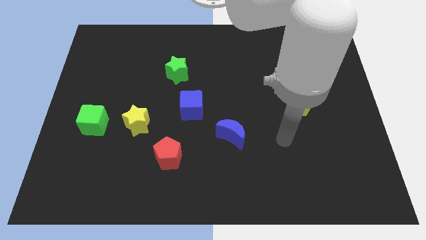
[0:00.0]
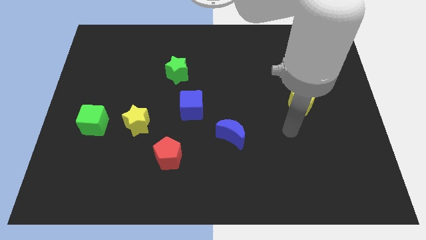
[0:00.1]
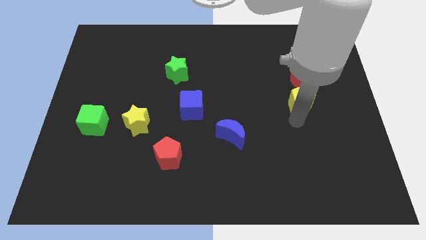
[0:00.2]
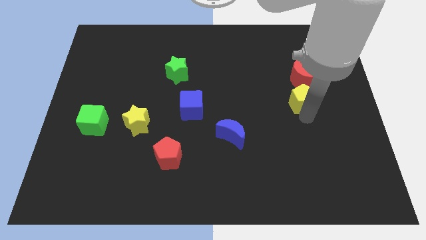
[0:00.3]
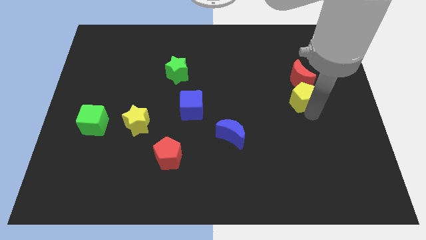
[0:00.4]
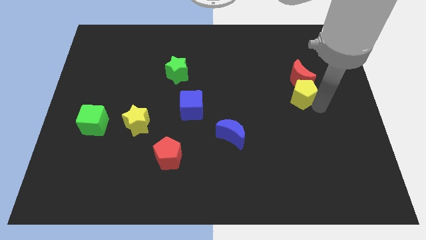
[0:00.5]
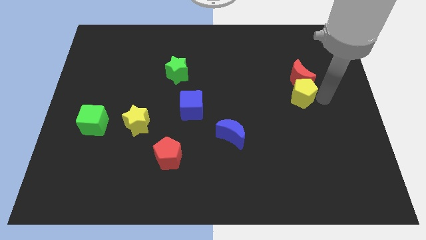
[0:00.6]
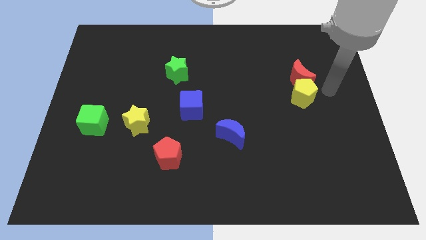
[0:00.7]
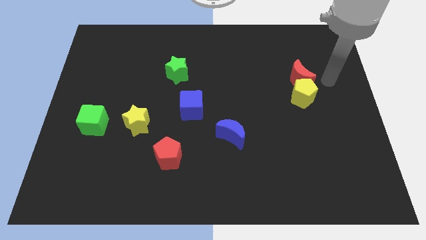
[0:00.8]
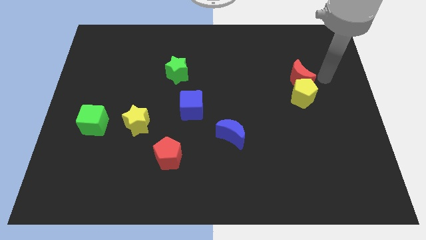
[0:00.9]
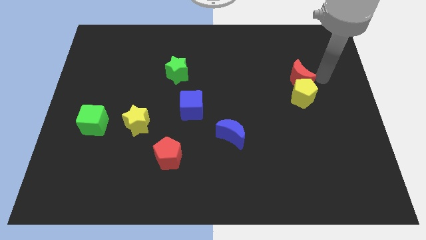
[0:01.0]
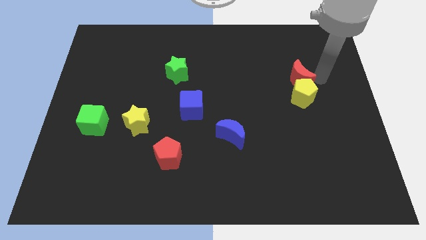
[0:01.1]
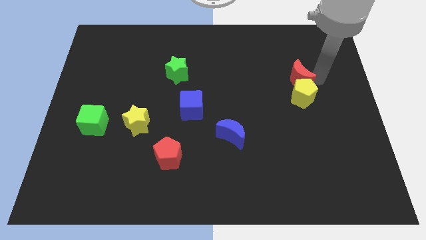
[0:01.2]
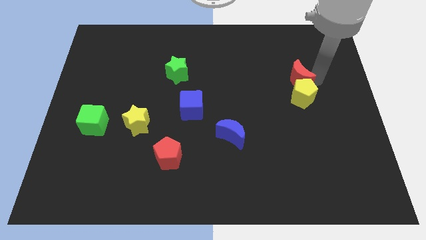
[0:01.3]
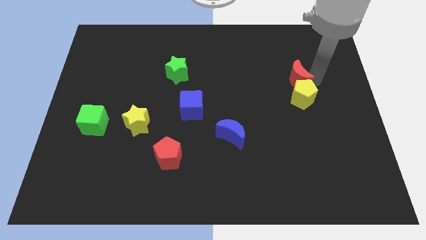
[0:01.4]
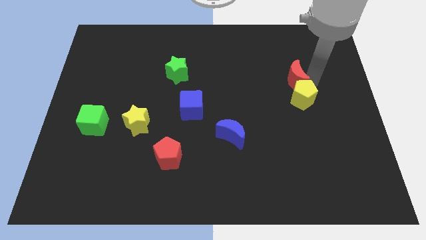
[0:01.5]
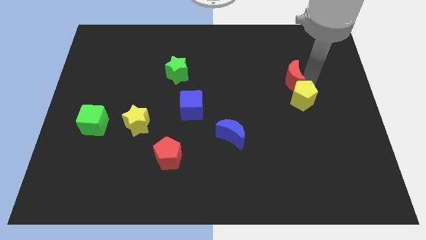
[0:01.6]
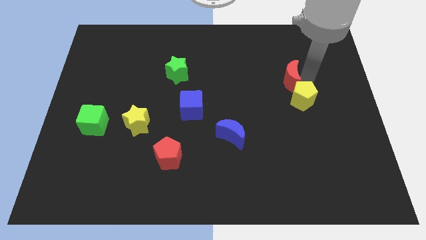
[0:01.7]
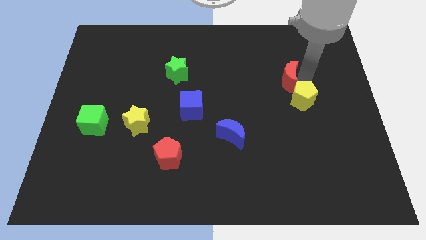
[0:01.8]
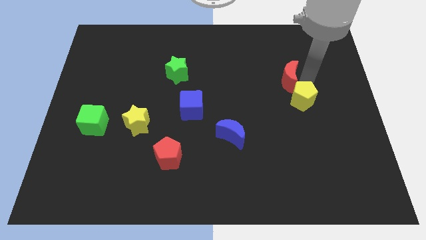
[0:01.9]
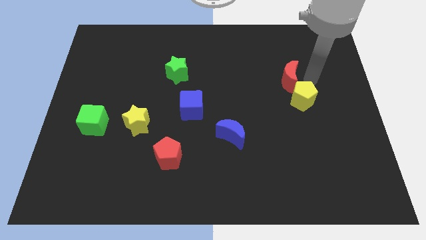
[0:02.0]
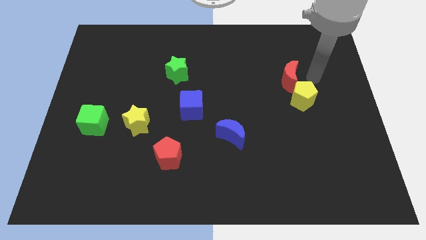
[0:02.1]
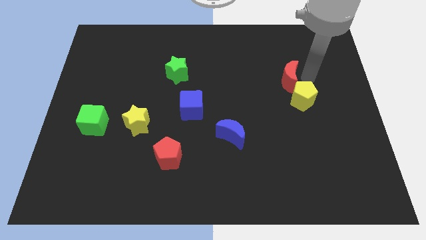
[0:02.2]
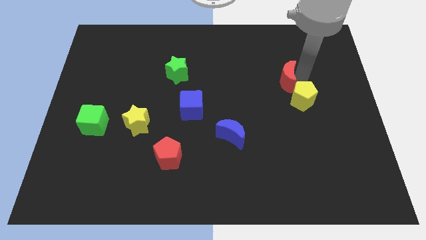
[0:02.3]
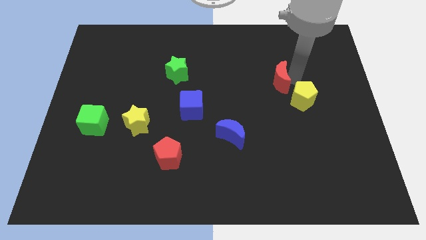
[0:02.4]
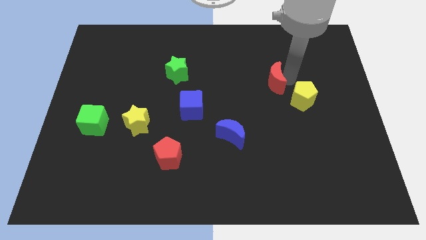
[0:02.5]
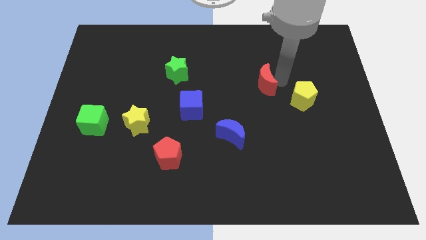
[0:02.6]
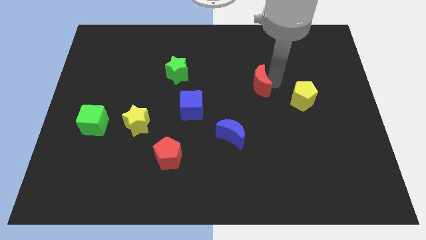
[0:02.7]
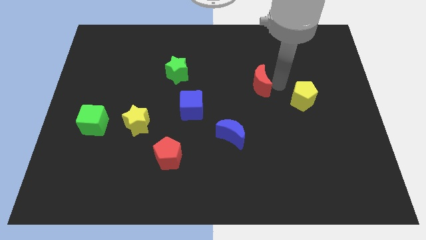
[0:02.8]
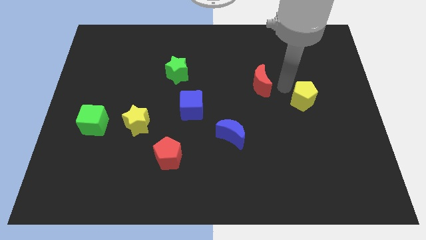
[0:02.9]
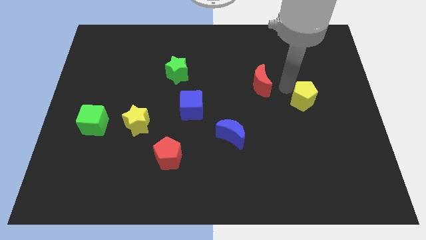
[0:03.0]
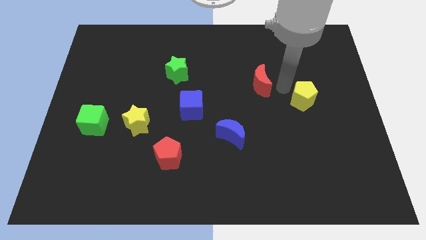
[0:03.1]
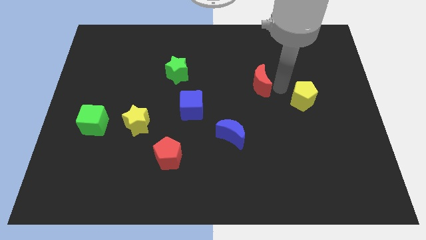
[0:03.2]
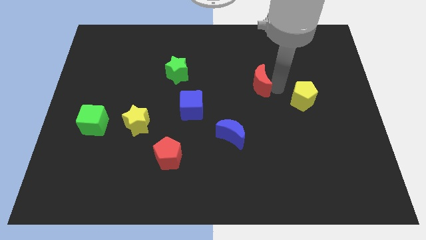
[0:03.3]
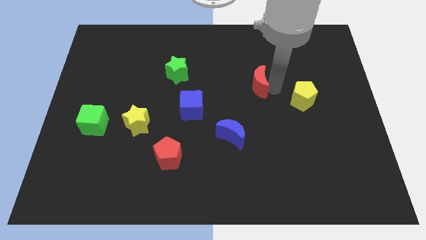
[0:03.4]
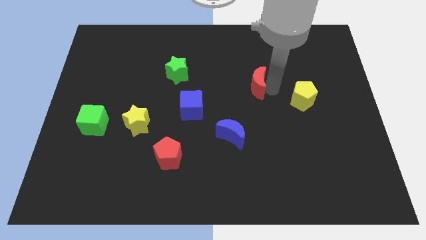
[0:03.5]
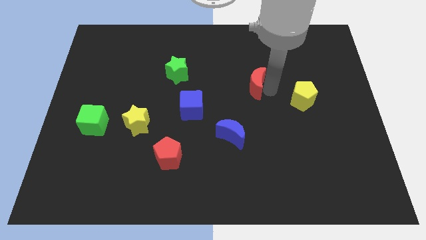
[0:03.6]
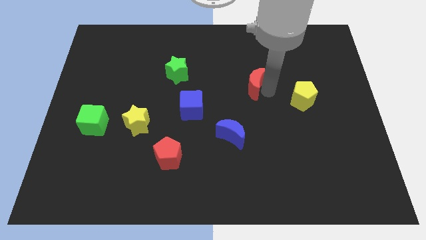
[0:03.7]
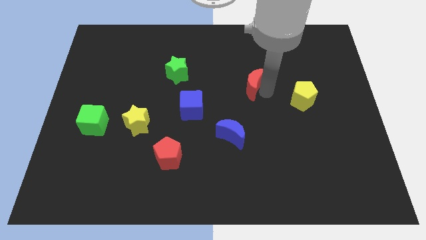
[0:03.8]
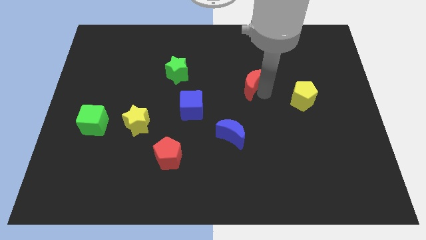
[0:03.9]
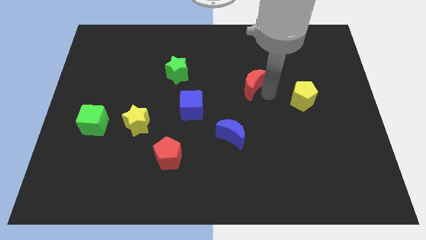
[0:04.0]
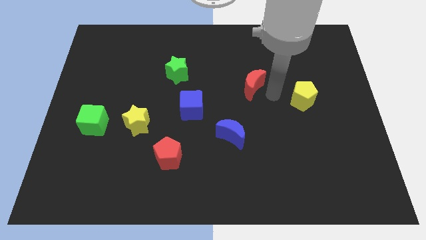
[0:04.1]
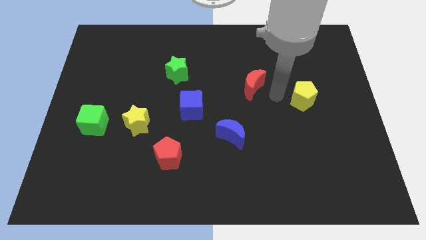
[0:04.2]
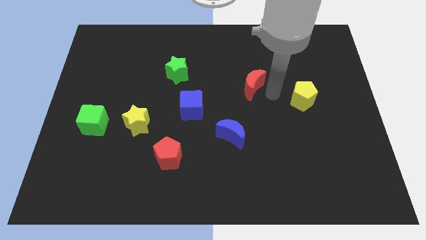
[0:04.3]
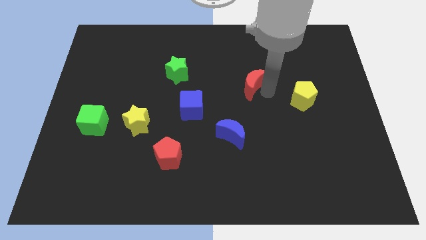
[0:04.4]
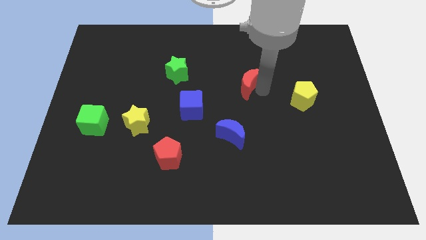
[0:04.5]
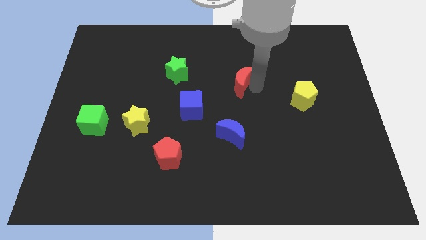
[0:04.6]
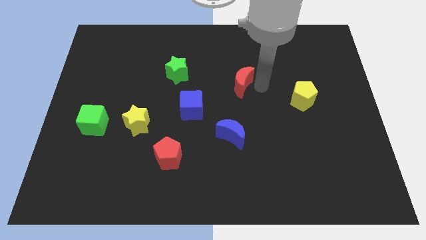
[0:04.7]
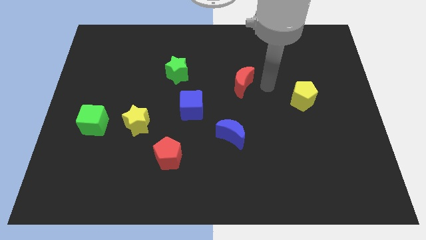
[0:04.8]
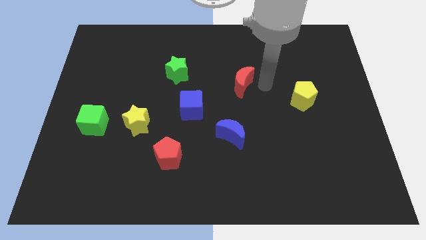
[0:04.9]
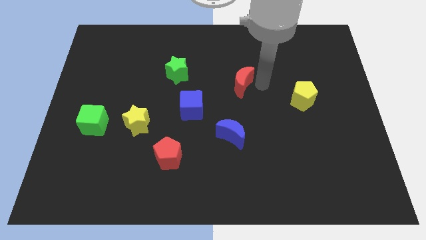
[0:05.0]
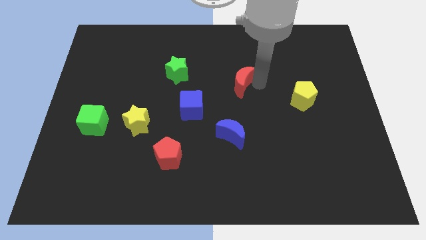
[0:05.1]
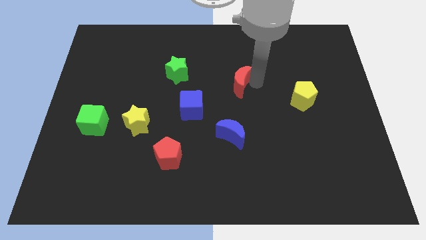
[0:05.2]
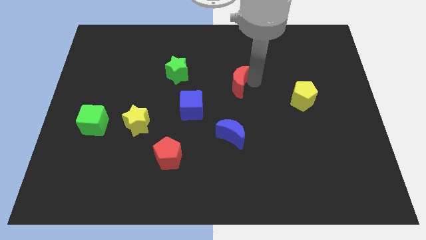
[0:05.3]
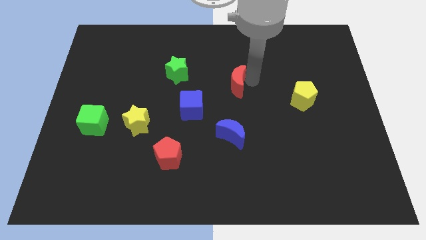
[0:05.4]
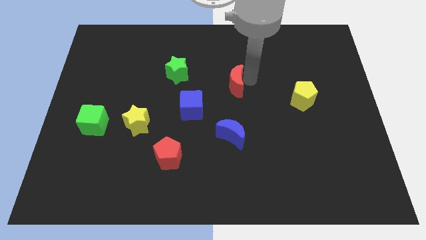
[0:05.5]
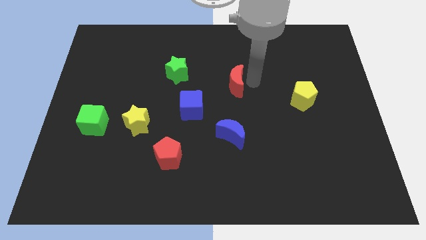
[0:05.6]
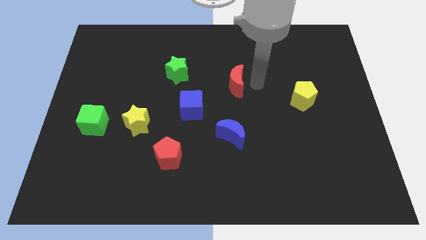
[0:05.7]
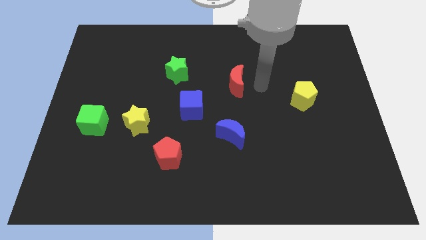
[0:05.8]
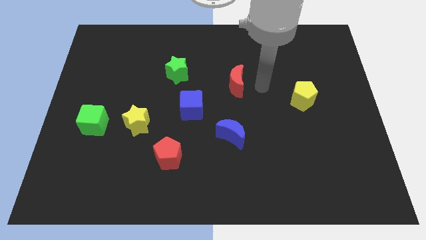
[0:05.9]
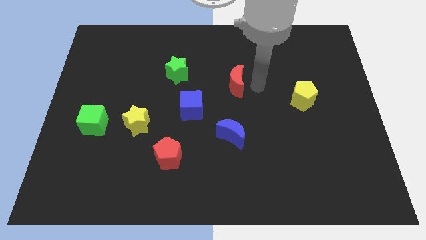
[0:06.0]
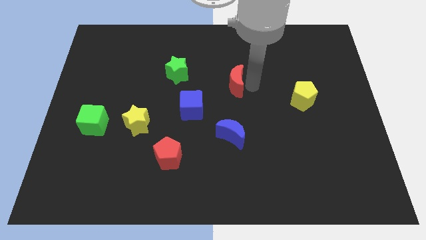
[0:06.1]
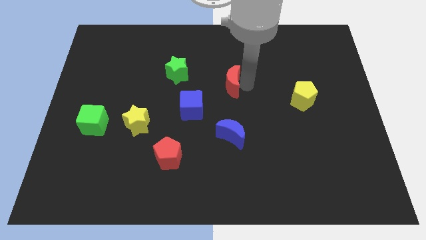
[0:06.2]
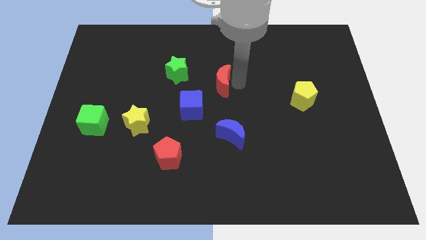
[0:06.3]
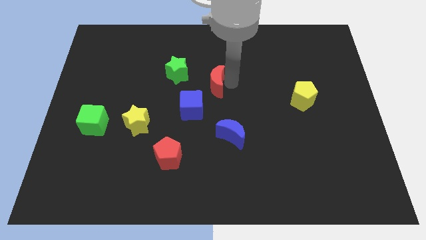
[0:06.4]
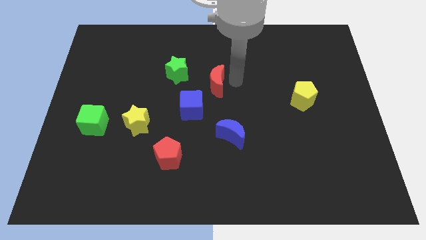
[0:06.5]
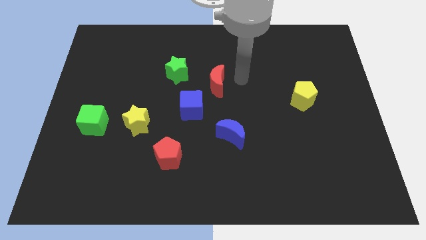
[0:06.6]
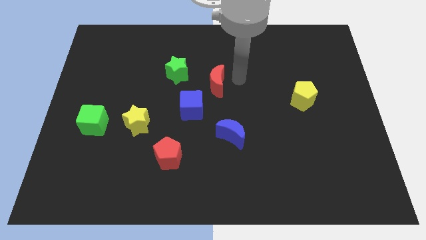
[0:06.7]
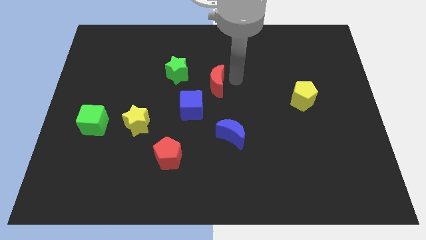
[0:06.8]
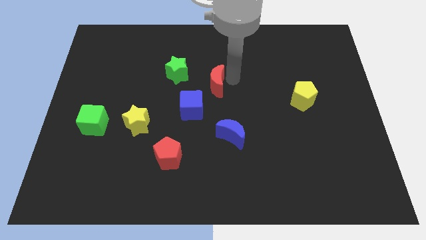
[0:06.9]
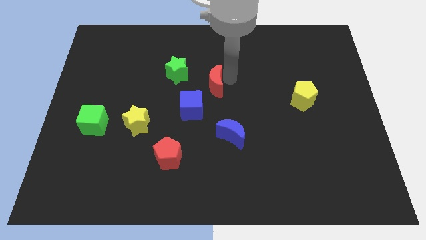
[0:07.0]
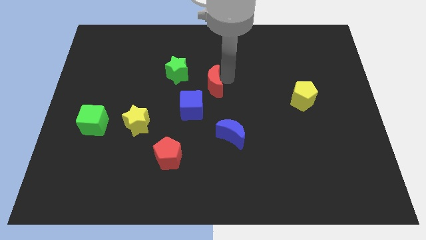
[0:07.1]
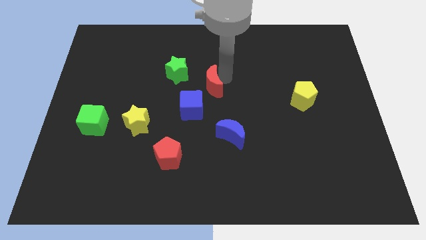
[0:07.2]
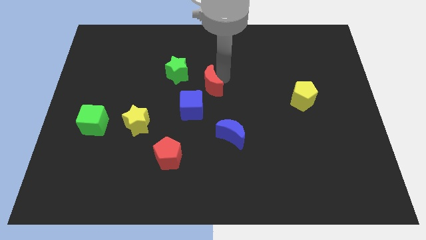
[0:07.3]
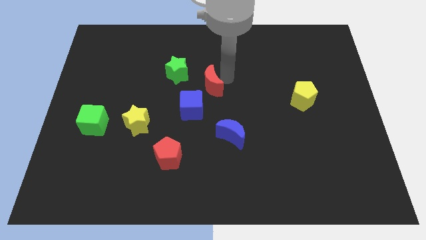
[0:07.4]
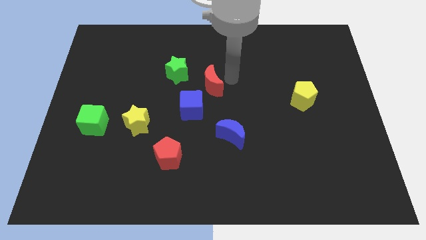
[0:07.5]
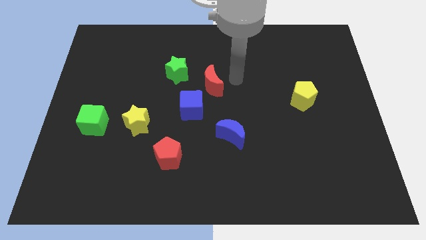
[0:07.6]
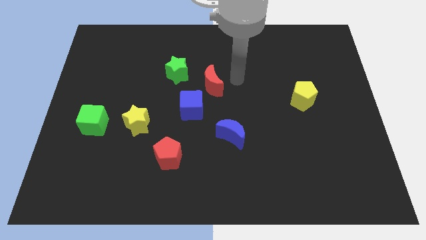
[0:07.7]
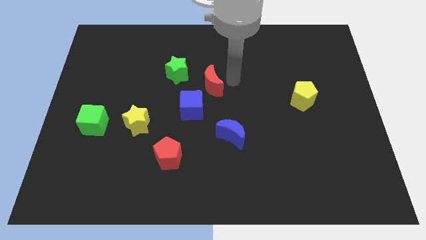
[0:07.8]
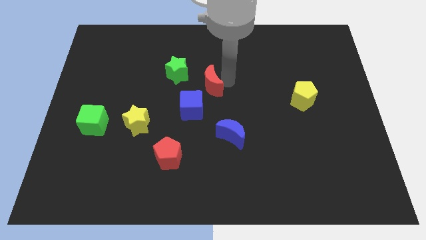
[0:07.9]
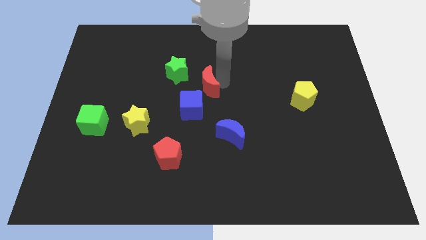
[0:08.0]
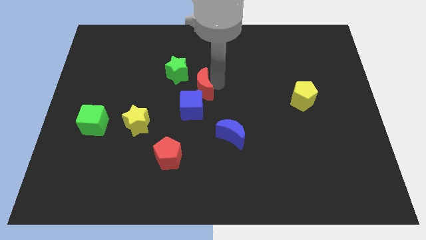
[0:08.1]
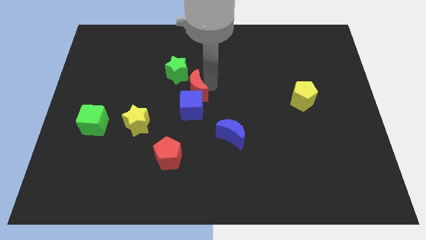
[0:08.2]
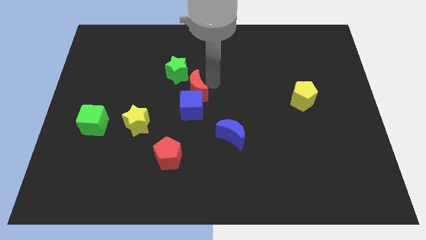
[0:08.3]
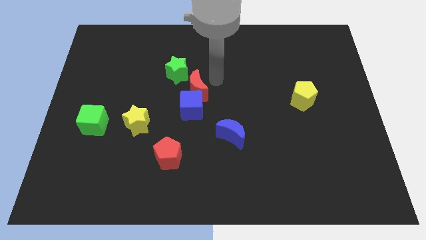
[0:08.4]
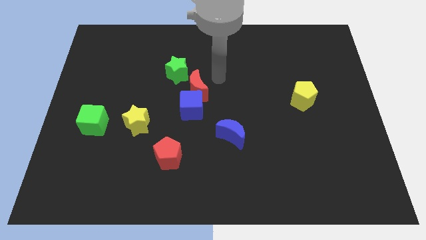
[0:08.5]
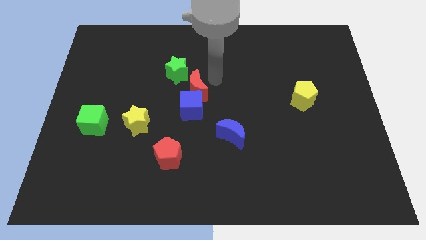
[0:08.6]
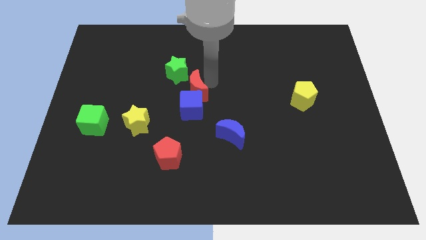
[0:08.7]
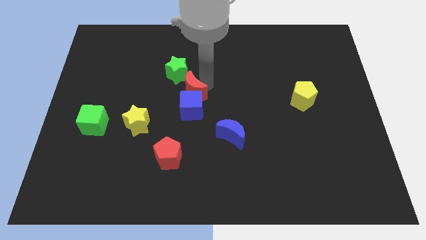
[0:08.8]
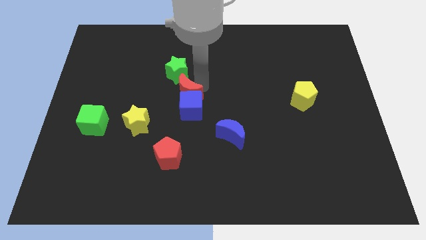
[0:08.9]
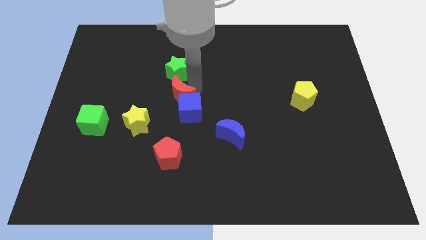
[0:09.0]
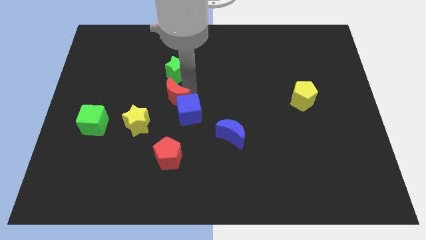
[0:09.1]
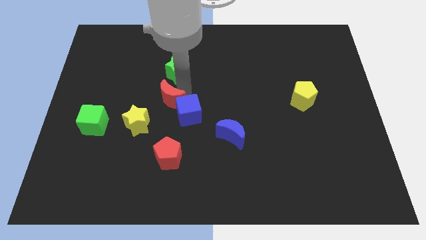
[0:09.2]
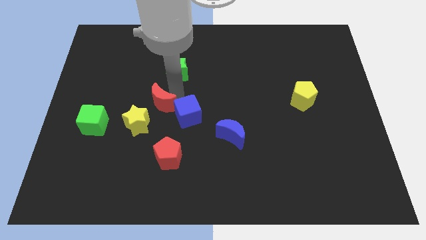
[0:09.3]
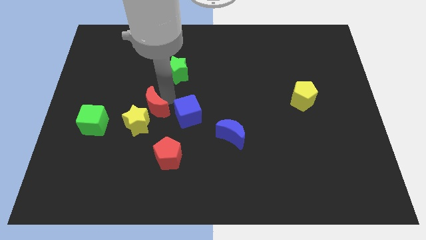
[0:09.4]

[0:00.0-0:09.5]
put the red moon to the yellow star
